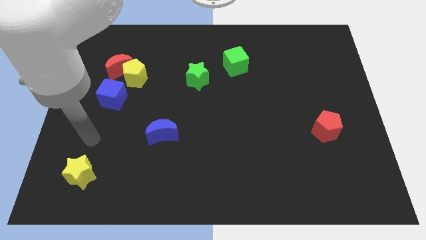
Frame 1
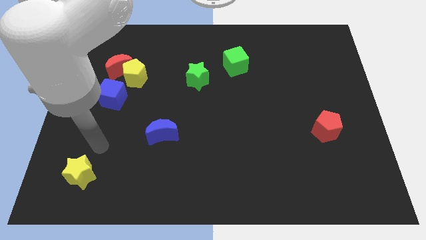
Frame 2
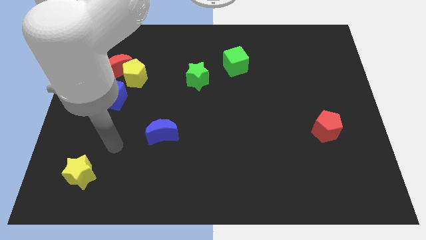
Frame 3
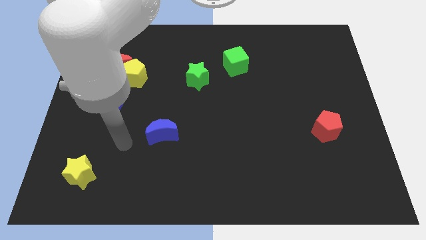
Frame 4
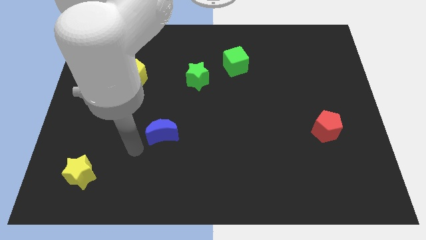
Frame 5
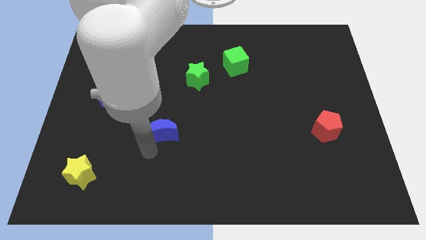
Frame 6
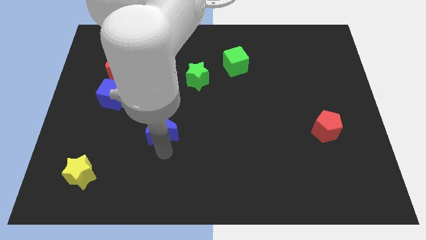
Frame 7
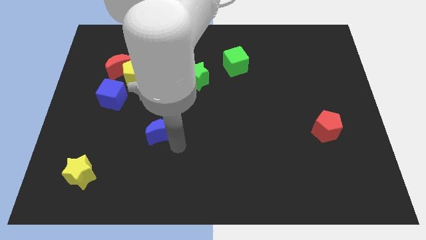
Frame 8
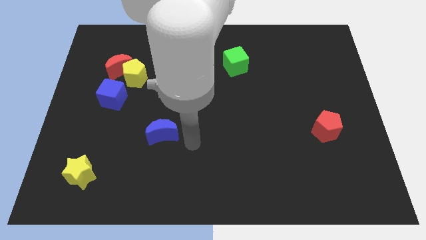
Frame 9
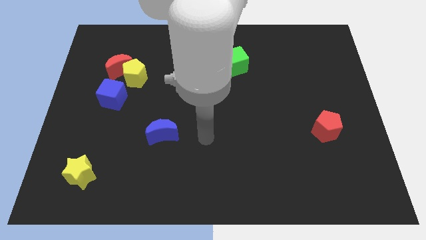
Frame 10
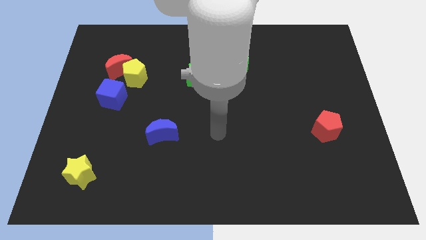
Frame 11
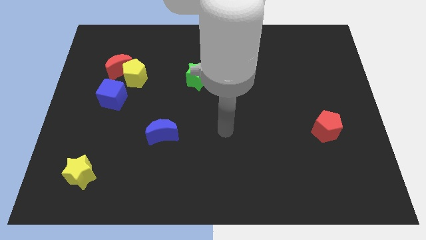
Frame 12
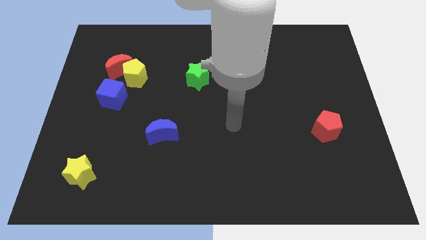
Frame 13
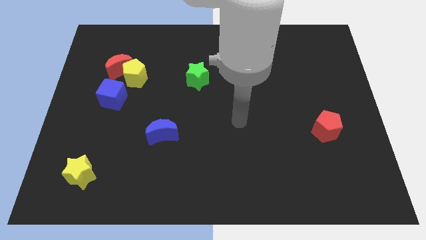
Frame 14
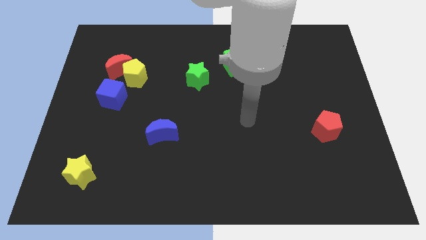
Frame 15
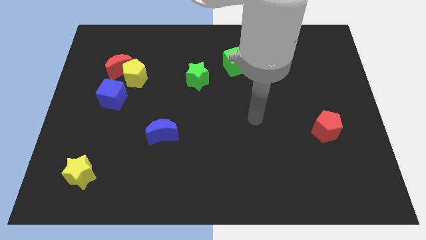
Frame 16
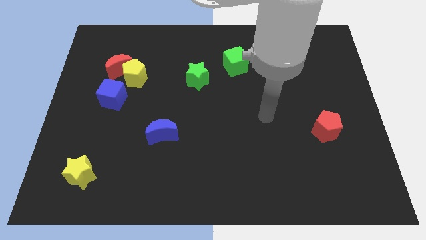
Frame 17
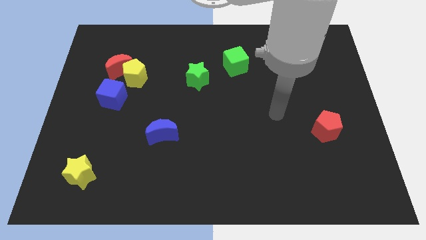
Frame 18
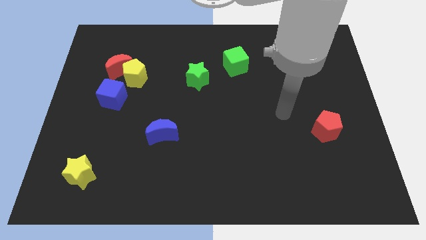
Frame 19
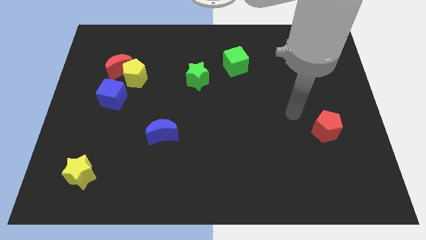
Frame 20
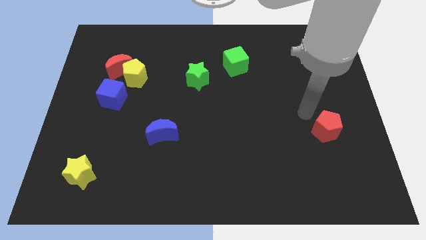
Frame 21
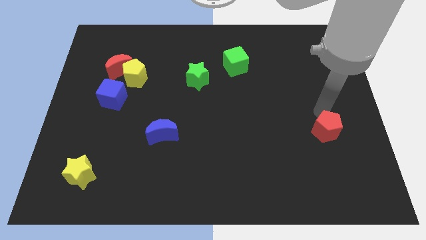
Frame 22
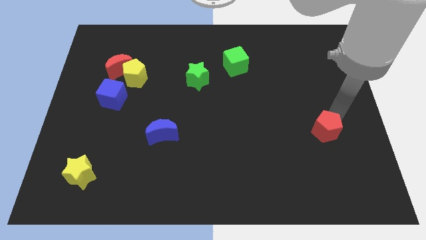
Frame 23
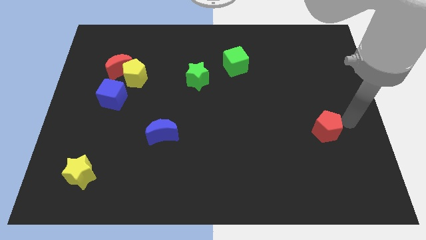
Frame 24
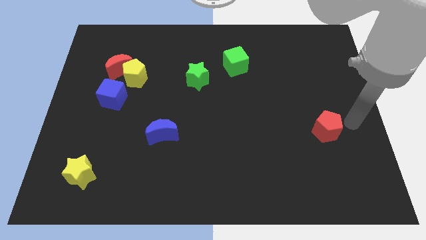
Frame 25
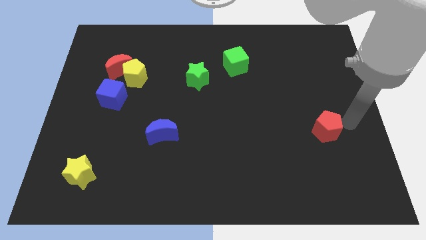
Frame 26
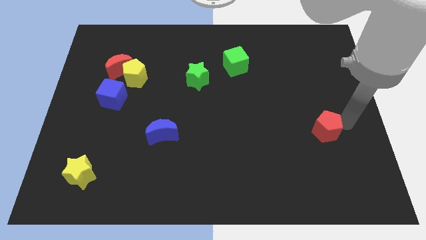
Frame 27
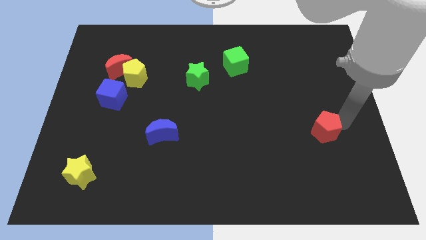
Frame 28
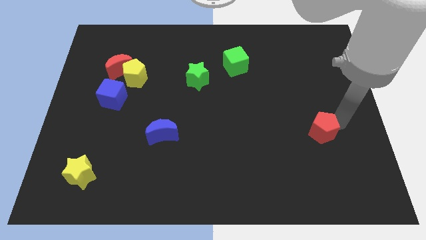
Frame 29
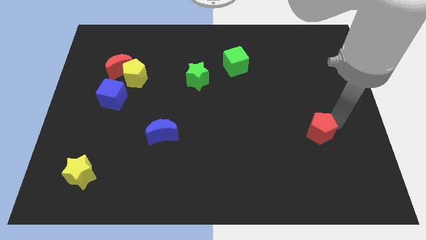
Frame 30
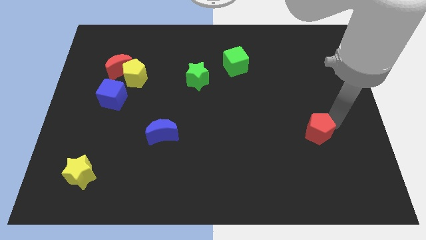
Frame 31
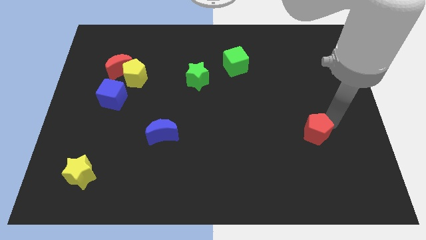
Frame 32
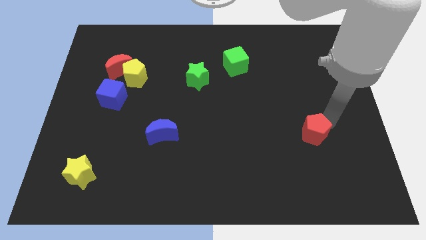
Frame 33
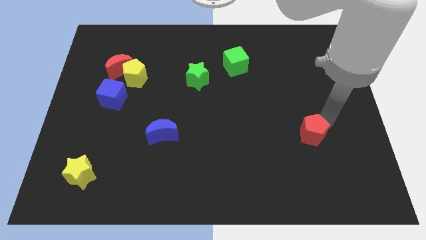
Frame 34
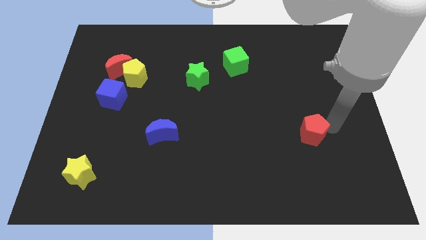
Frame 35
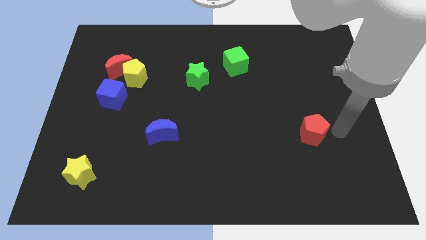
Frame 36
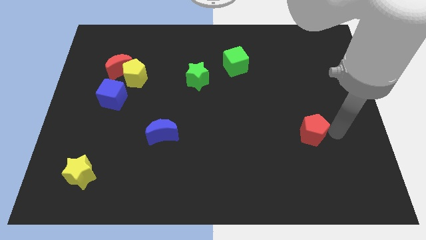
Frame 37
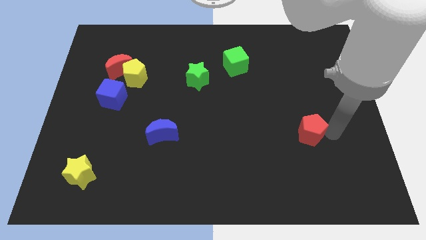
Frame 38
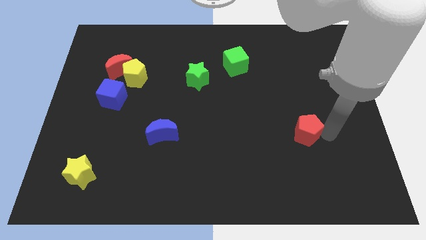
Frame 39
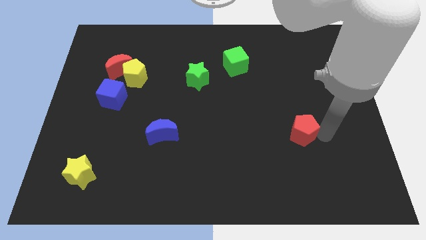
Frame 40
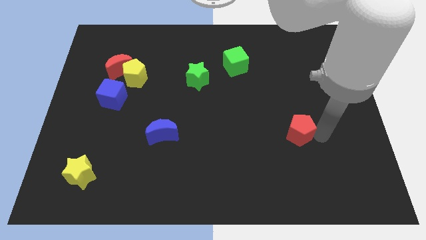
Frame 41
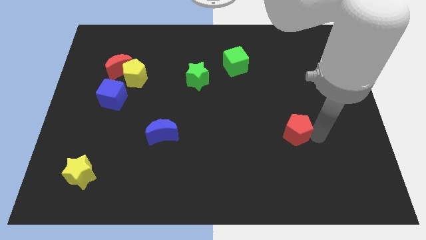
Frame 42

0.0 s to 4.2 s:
move the red pentagon to the left a little bit

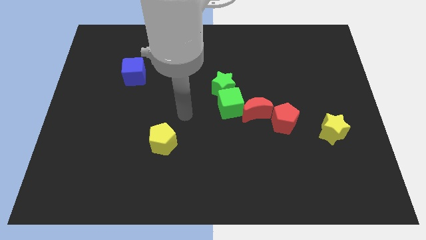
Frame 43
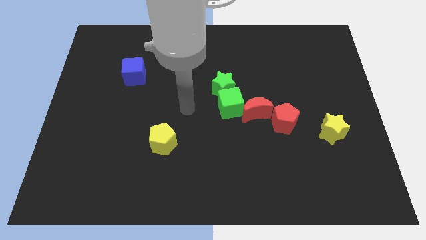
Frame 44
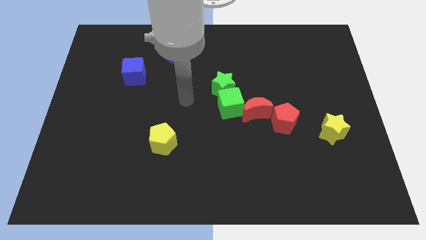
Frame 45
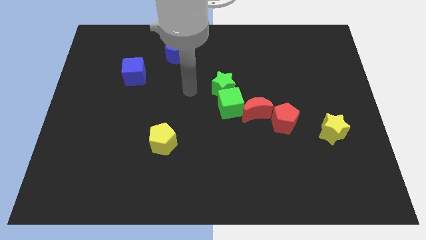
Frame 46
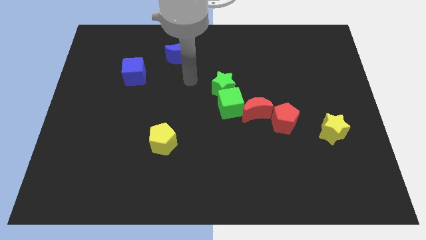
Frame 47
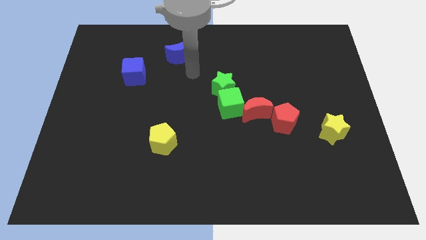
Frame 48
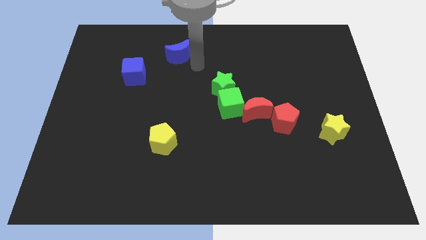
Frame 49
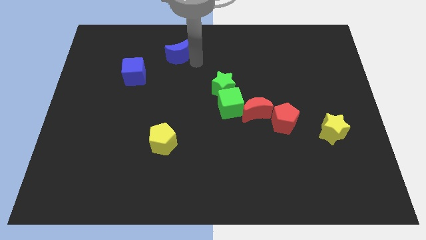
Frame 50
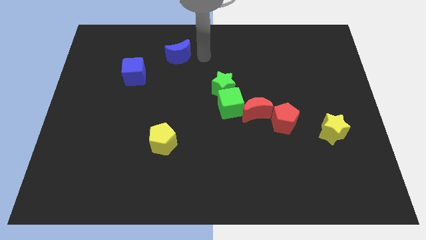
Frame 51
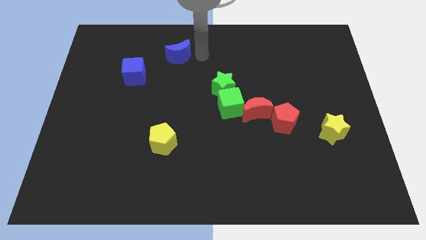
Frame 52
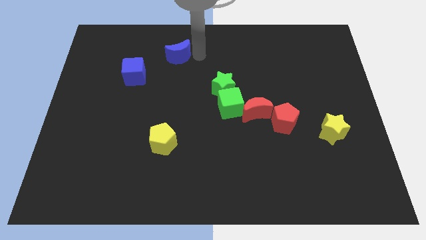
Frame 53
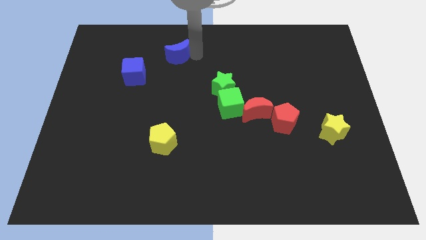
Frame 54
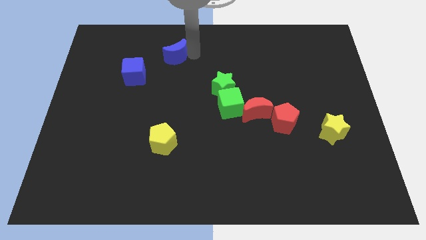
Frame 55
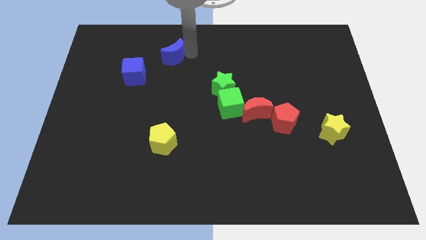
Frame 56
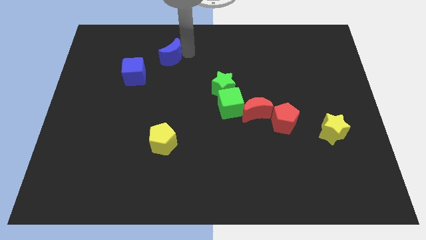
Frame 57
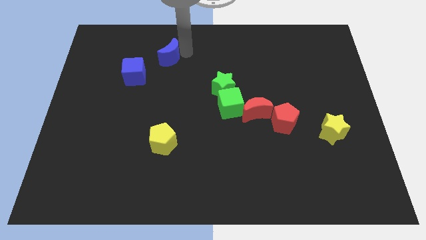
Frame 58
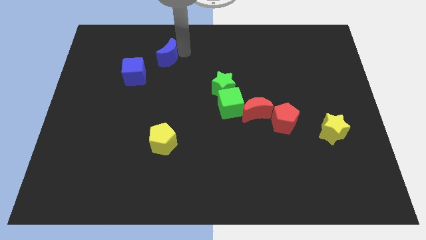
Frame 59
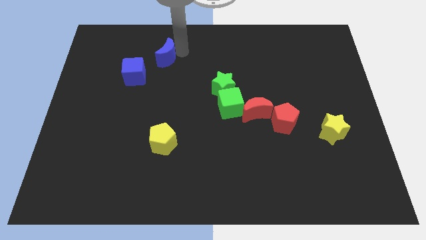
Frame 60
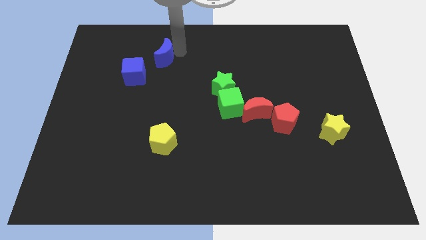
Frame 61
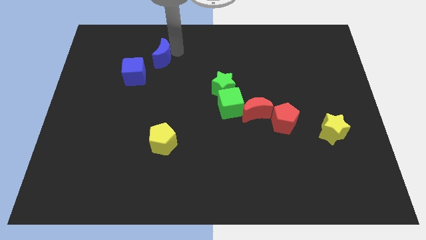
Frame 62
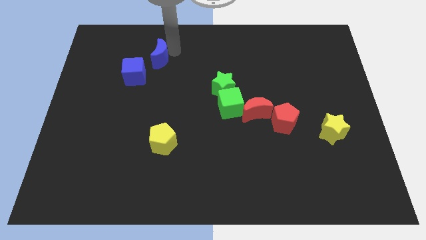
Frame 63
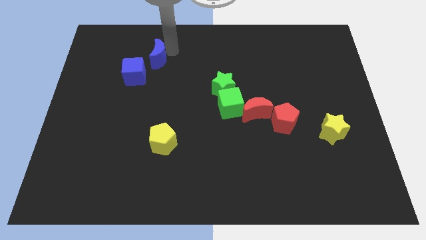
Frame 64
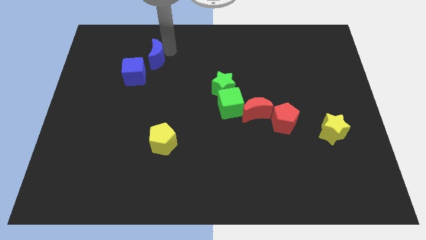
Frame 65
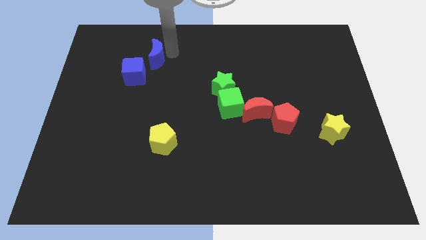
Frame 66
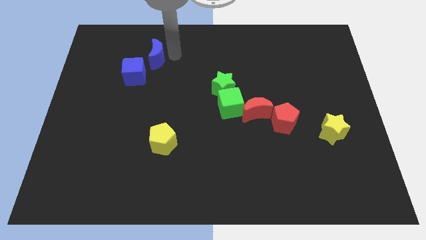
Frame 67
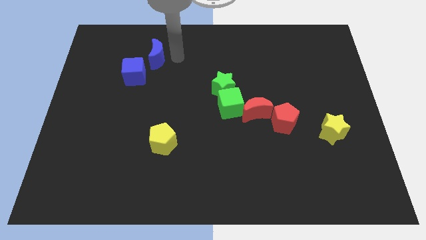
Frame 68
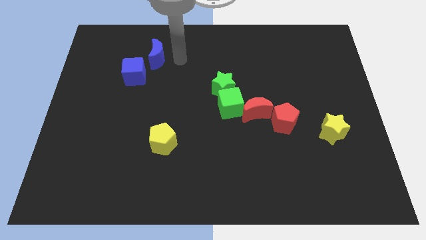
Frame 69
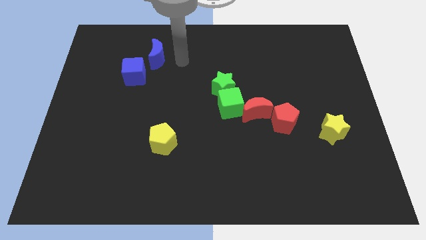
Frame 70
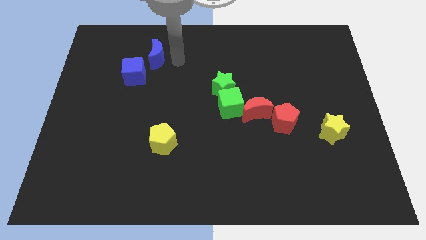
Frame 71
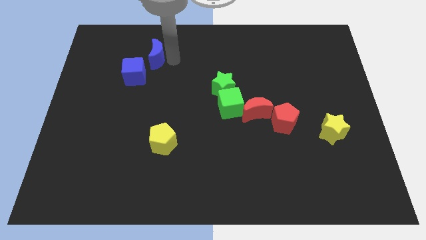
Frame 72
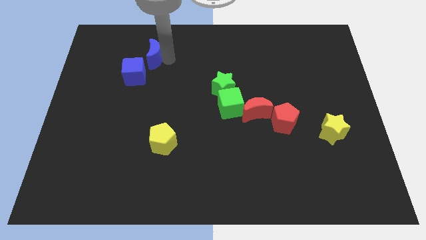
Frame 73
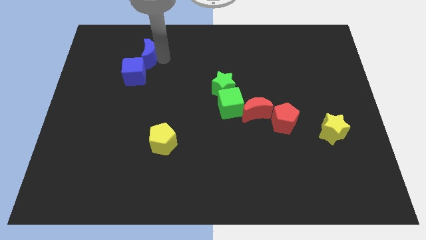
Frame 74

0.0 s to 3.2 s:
push the blue moon a little to the left

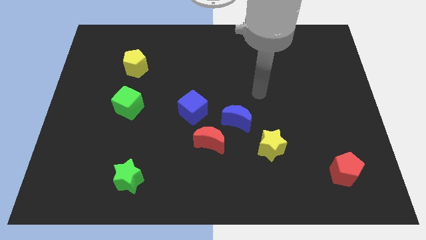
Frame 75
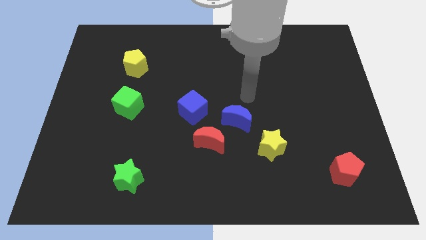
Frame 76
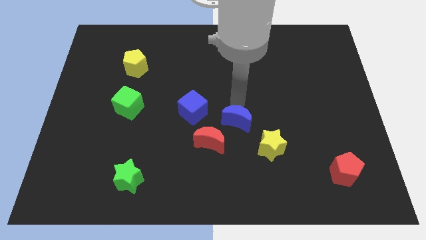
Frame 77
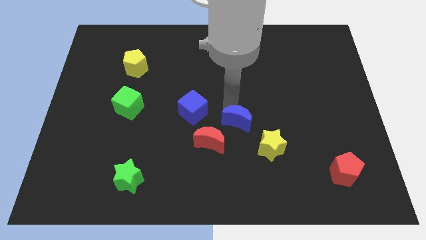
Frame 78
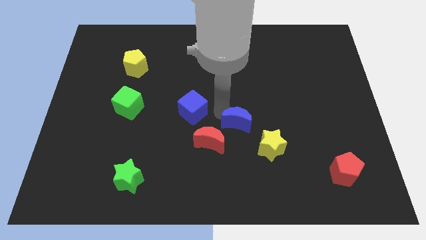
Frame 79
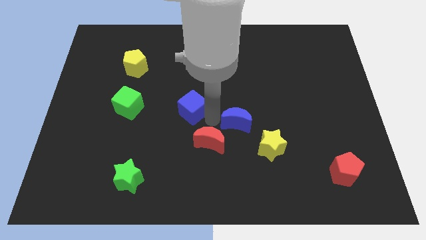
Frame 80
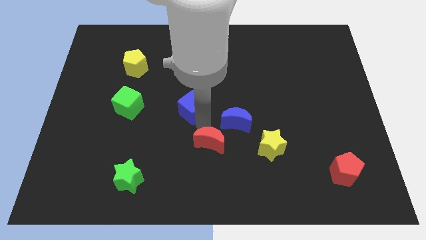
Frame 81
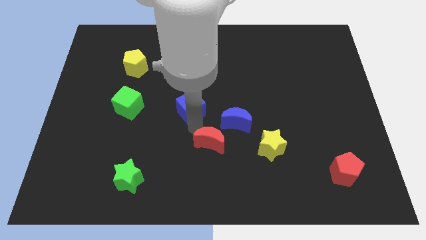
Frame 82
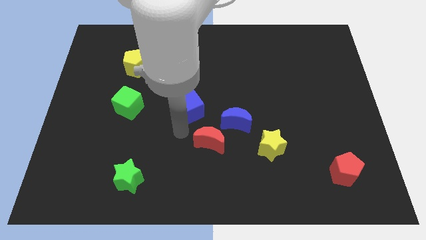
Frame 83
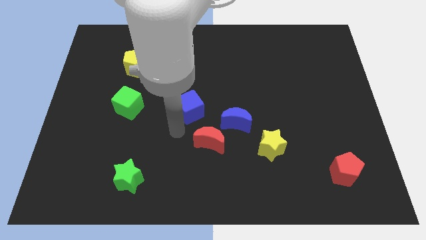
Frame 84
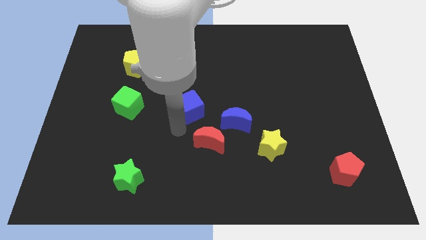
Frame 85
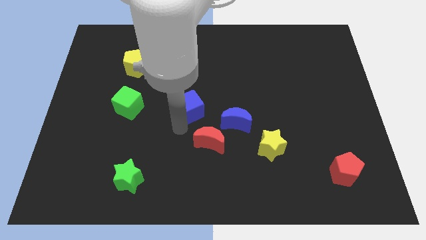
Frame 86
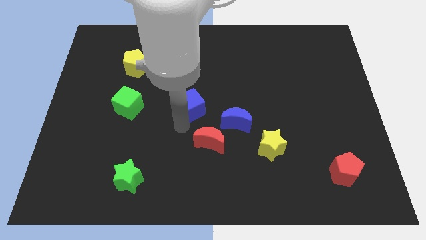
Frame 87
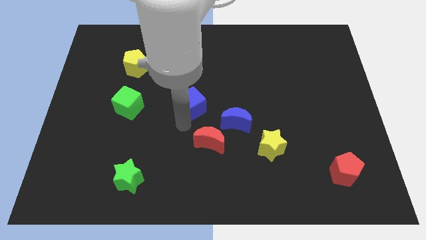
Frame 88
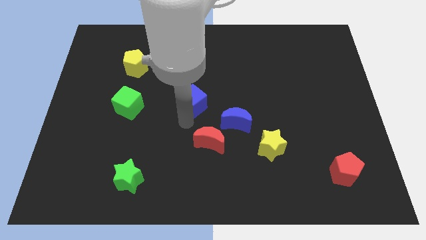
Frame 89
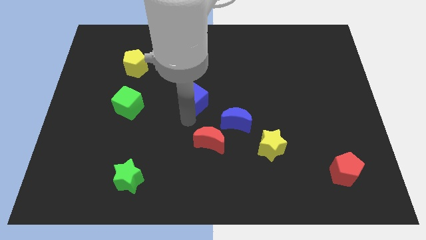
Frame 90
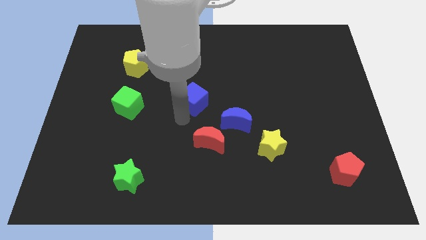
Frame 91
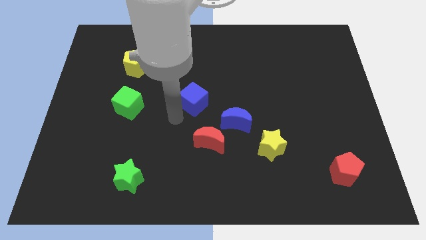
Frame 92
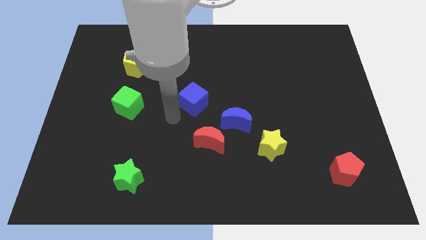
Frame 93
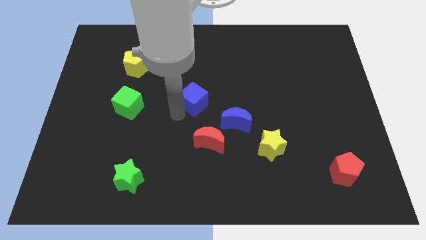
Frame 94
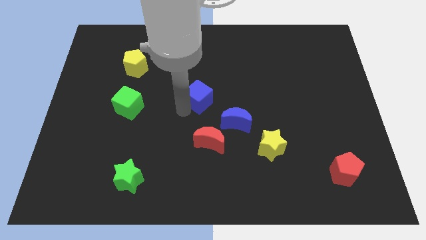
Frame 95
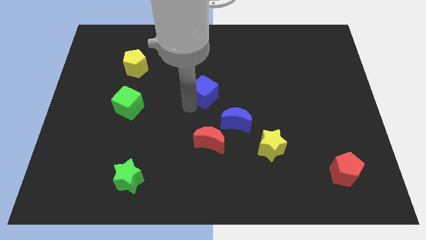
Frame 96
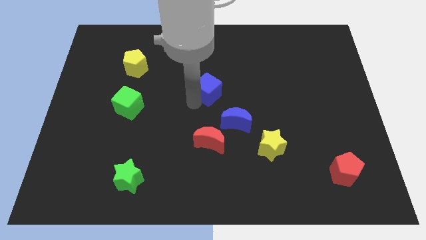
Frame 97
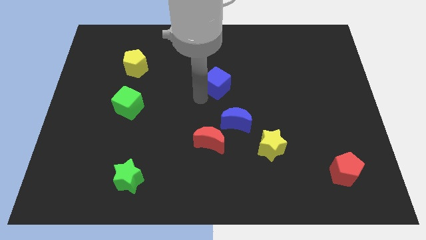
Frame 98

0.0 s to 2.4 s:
push the blue cube slightly up and then to the right
